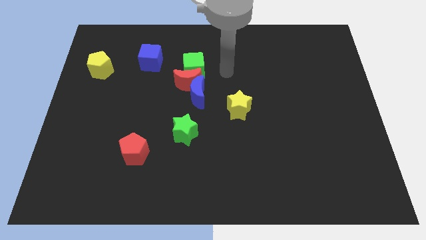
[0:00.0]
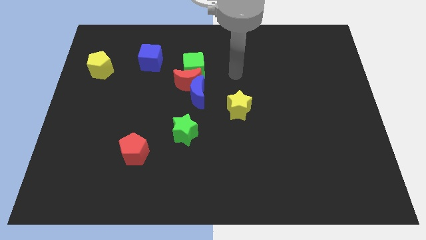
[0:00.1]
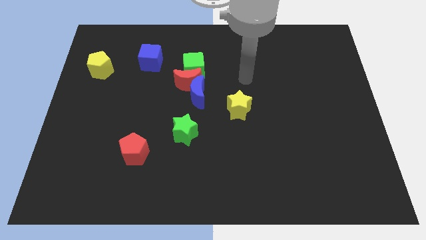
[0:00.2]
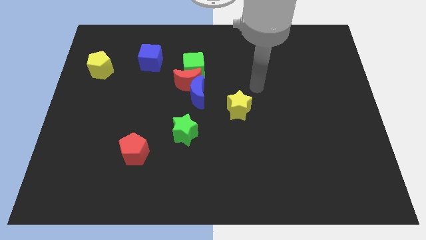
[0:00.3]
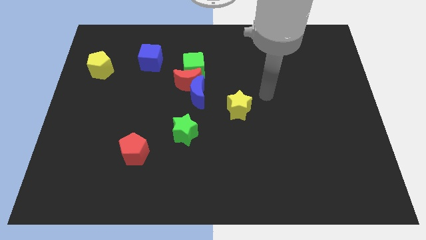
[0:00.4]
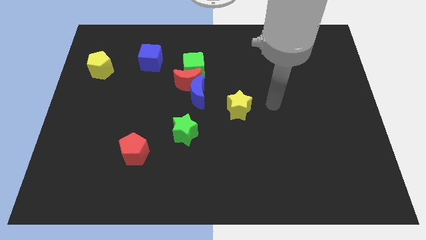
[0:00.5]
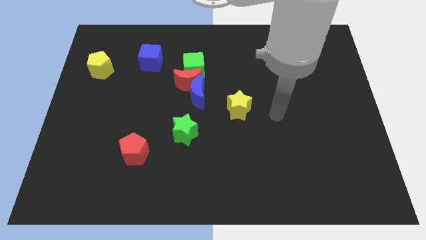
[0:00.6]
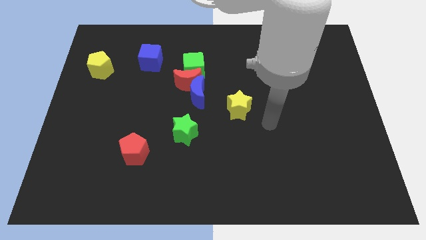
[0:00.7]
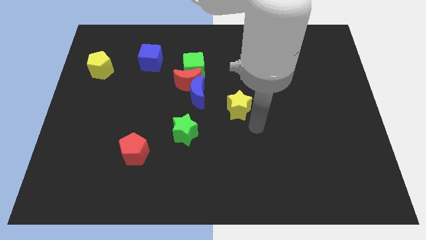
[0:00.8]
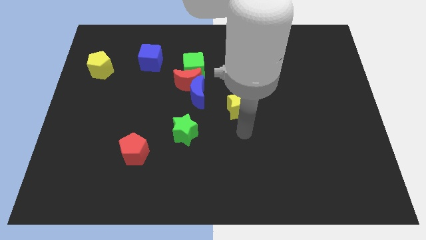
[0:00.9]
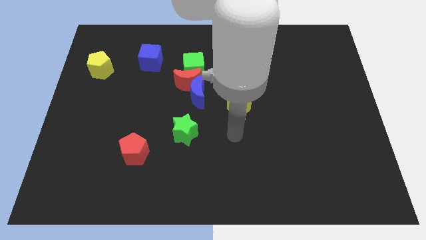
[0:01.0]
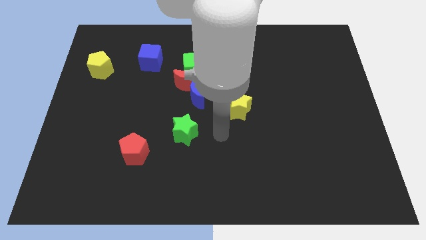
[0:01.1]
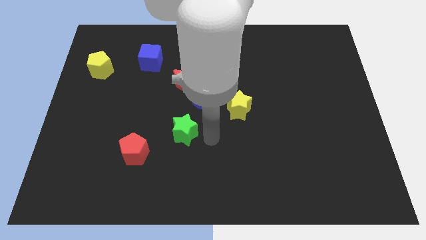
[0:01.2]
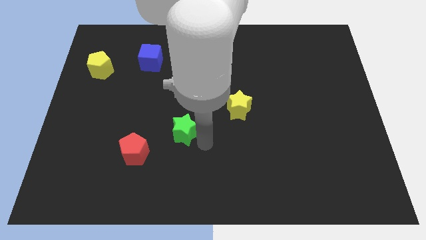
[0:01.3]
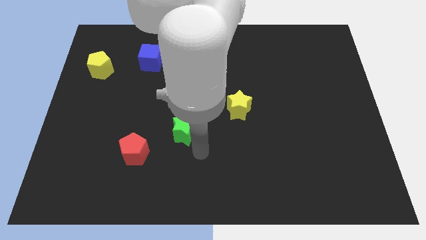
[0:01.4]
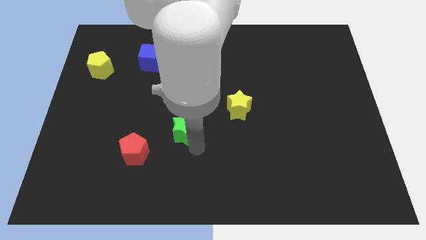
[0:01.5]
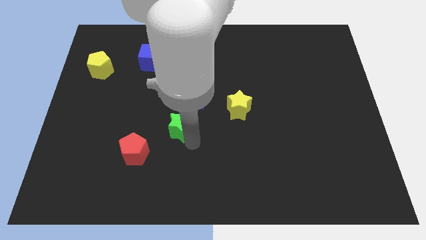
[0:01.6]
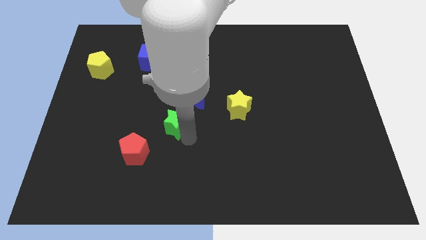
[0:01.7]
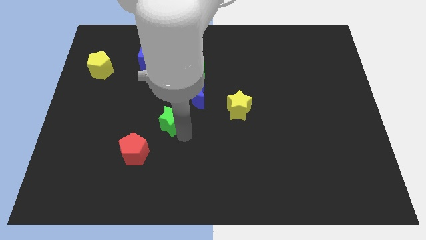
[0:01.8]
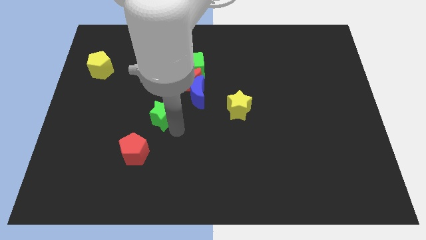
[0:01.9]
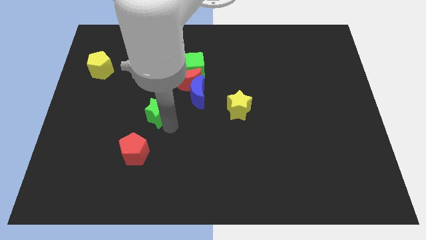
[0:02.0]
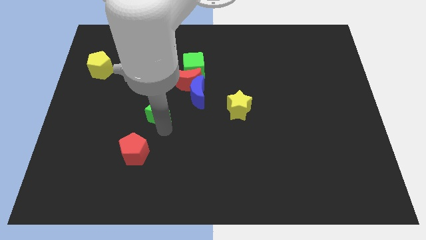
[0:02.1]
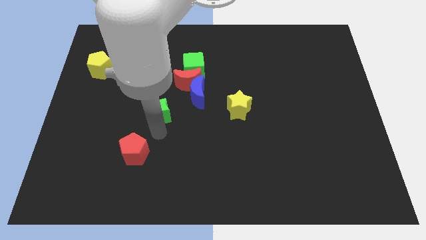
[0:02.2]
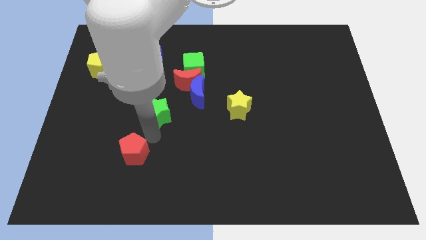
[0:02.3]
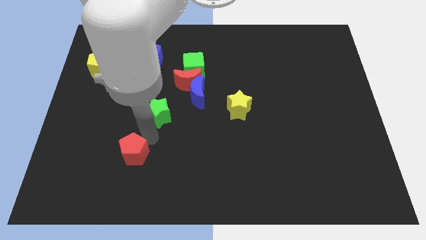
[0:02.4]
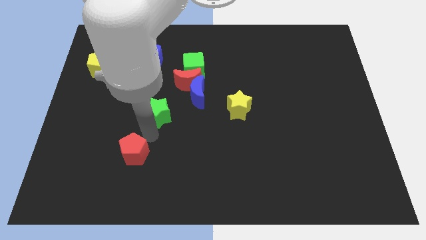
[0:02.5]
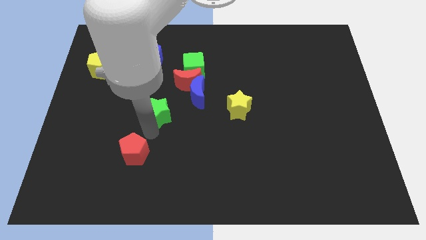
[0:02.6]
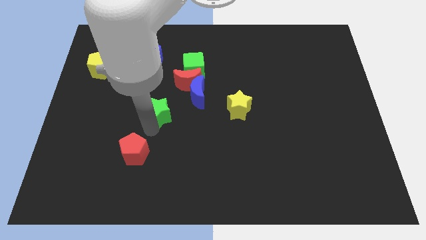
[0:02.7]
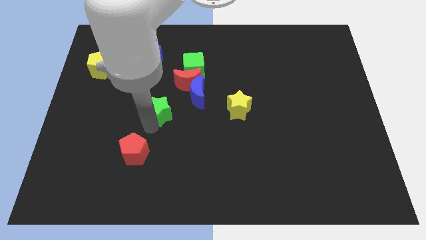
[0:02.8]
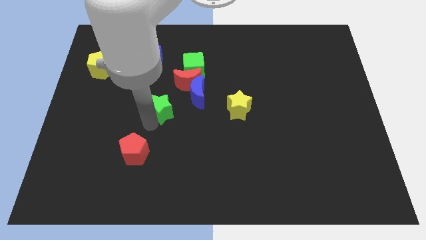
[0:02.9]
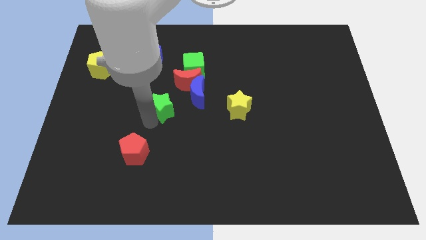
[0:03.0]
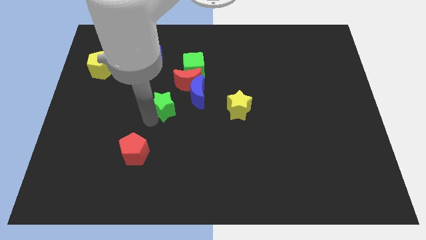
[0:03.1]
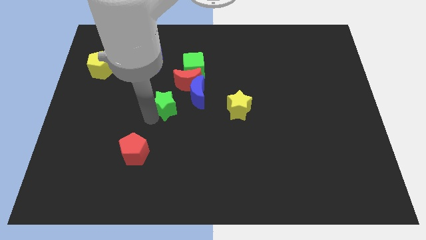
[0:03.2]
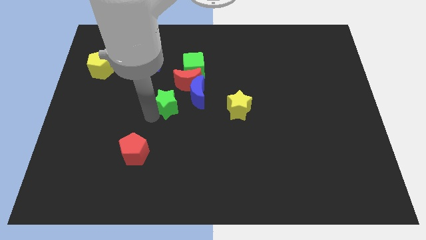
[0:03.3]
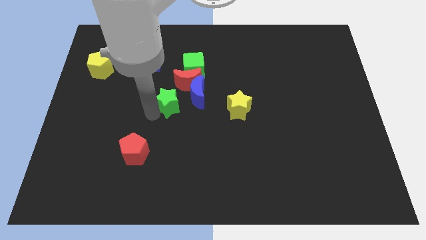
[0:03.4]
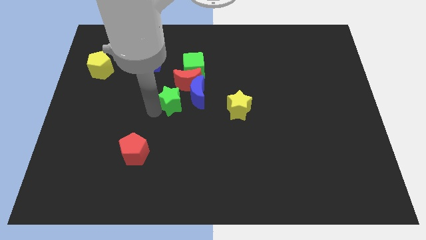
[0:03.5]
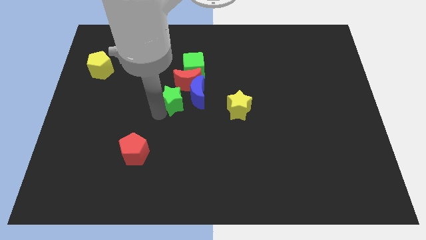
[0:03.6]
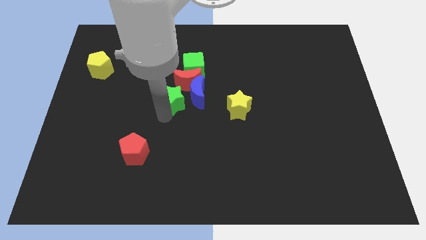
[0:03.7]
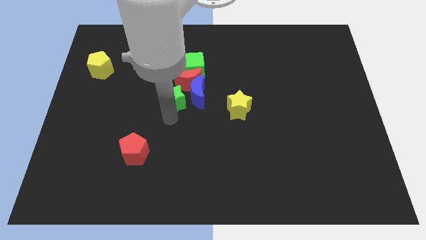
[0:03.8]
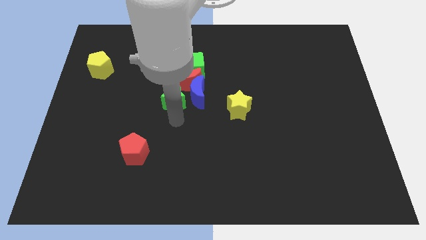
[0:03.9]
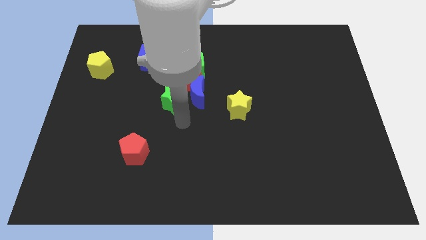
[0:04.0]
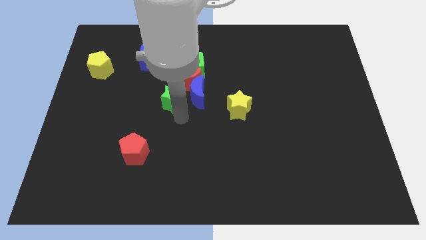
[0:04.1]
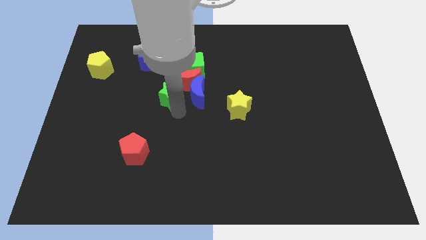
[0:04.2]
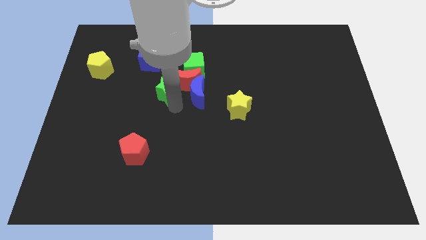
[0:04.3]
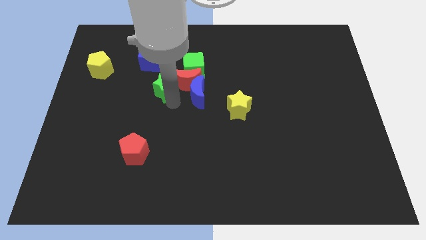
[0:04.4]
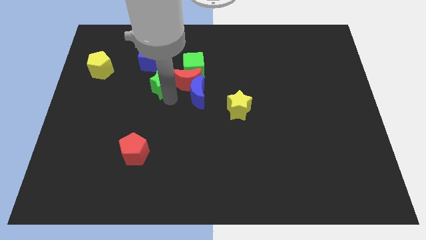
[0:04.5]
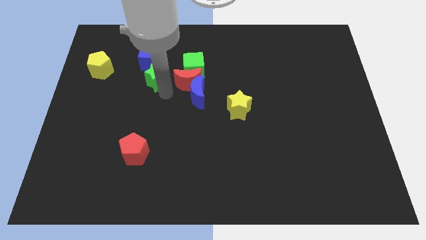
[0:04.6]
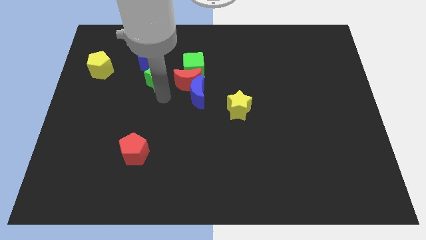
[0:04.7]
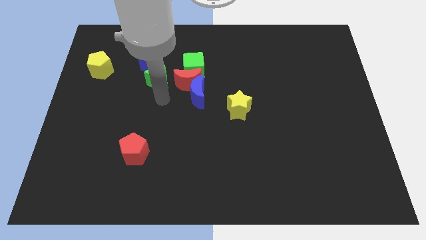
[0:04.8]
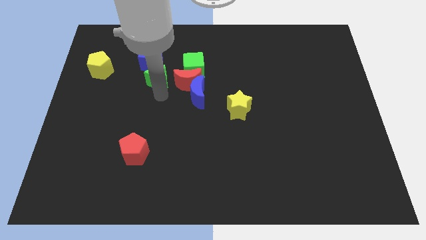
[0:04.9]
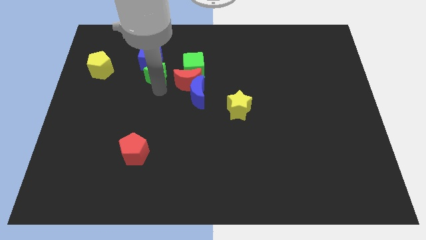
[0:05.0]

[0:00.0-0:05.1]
put the green star to the blue cube

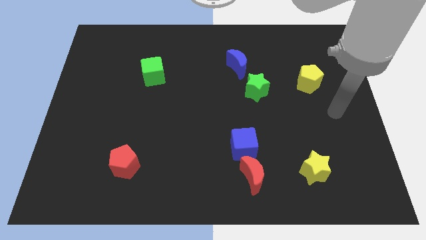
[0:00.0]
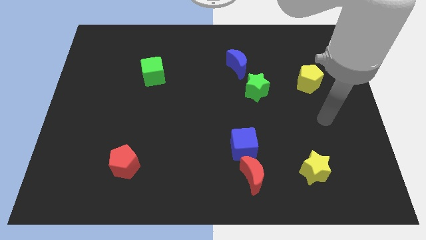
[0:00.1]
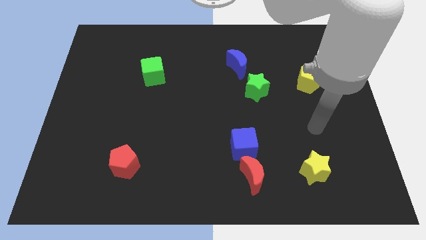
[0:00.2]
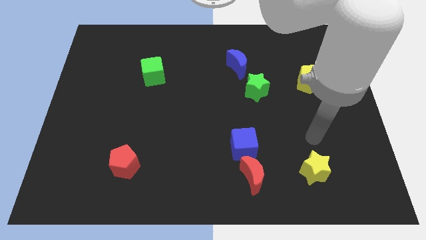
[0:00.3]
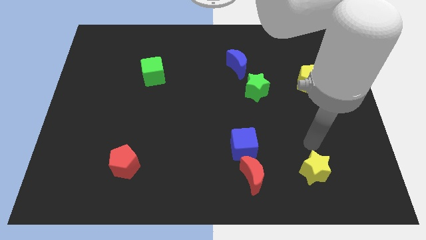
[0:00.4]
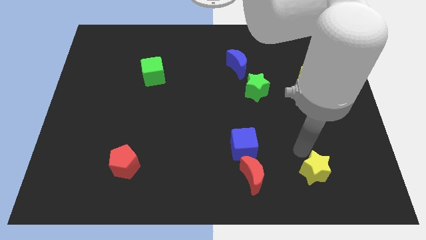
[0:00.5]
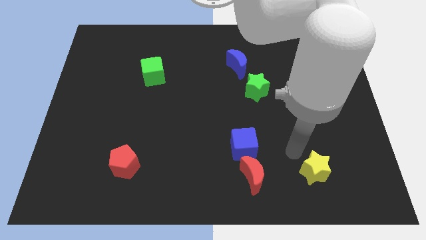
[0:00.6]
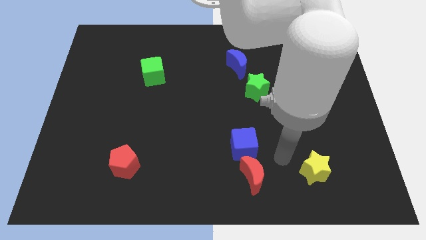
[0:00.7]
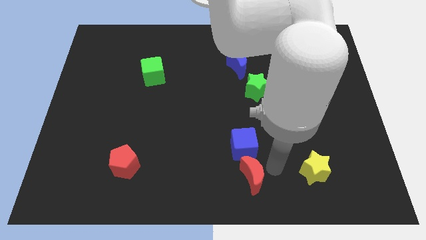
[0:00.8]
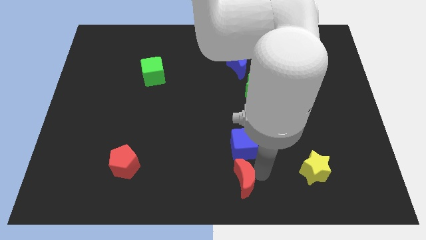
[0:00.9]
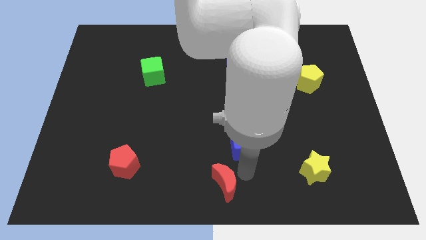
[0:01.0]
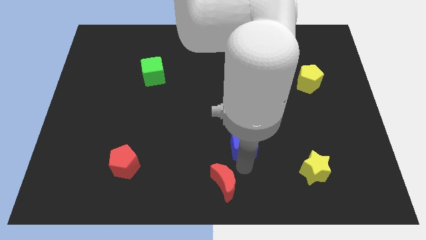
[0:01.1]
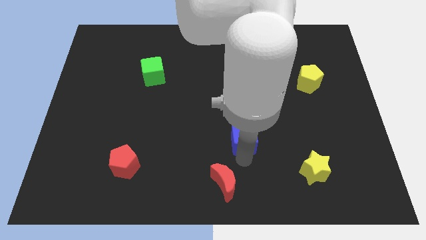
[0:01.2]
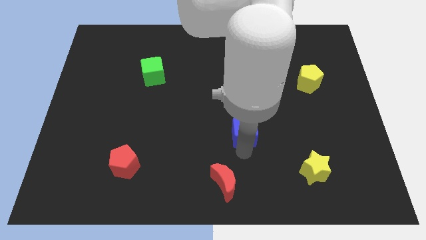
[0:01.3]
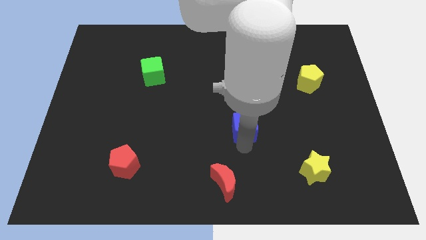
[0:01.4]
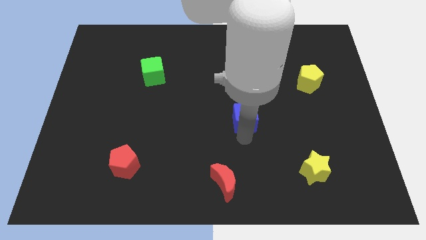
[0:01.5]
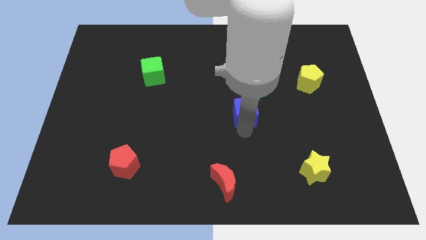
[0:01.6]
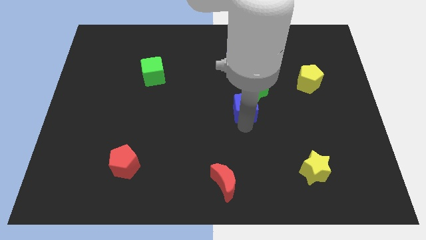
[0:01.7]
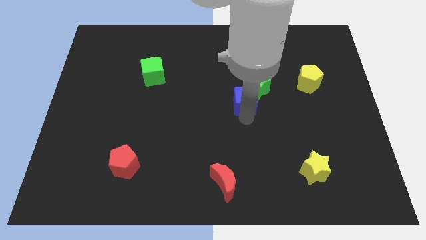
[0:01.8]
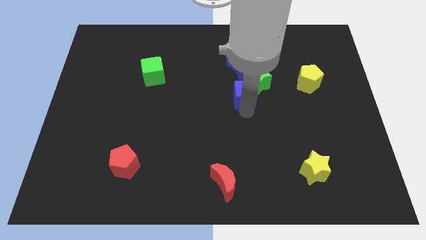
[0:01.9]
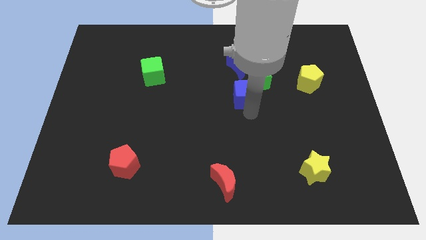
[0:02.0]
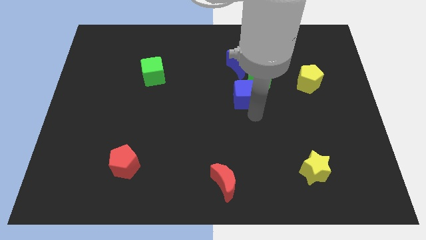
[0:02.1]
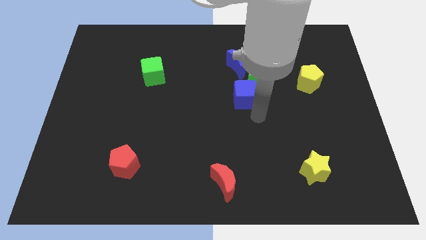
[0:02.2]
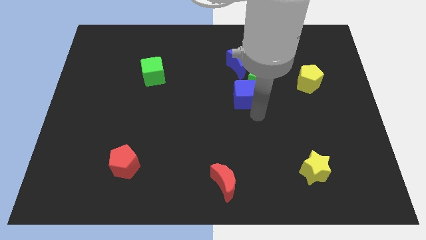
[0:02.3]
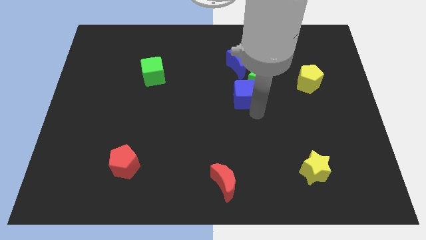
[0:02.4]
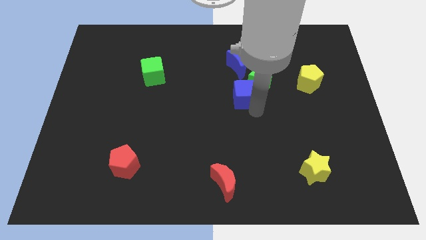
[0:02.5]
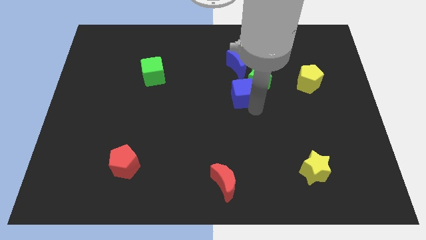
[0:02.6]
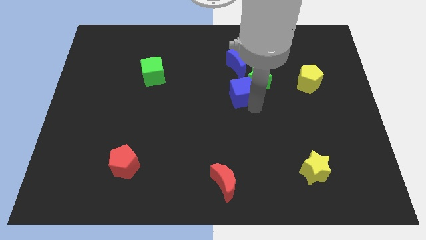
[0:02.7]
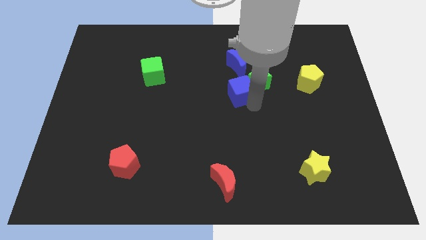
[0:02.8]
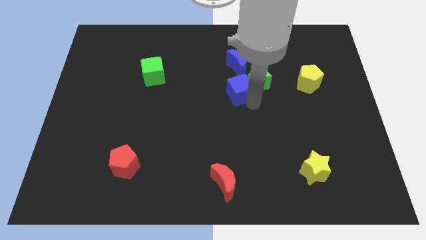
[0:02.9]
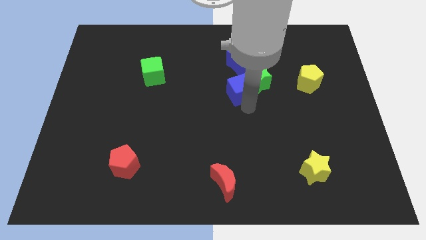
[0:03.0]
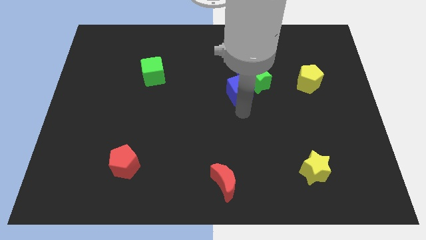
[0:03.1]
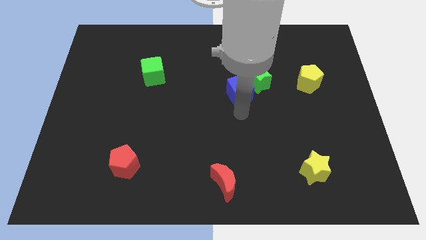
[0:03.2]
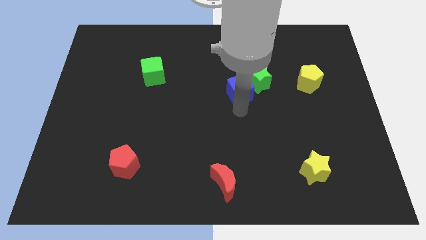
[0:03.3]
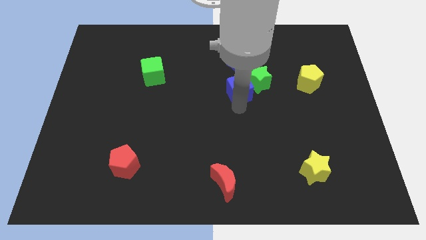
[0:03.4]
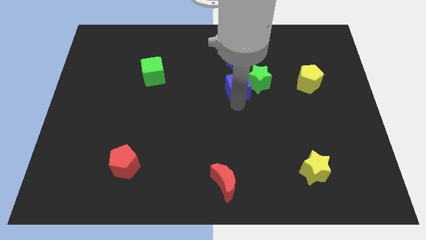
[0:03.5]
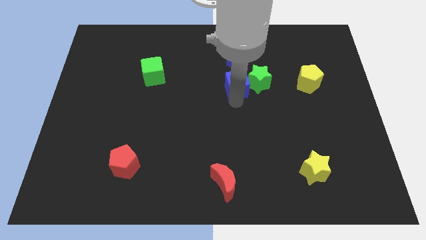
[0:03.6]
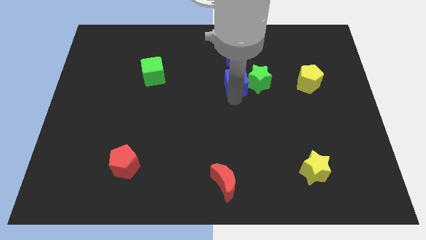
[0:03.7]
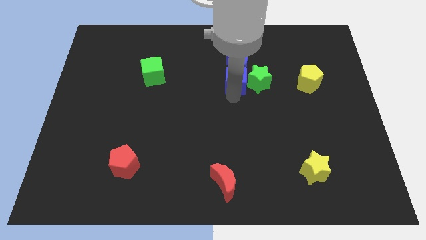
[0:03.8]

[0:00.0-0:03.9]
slide the blue cube towards the blue moon
